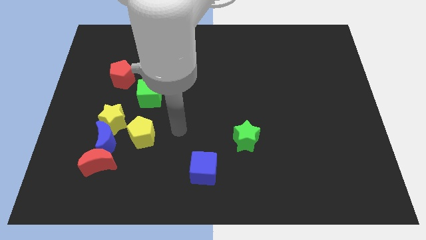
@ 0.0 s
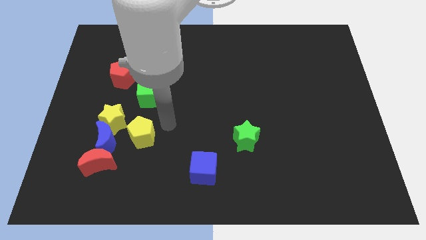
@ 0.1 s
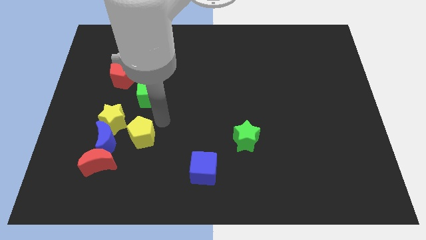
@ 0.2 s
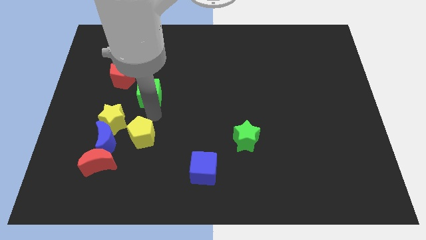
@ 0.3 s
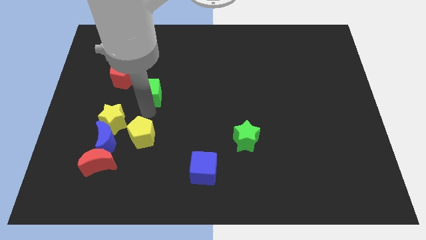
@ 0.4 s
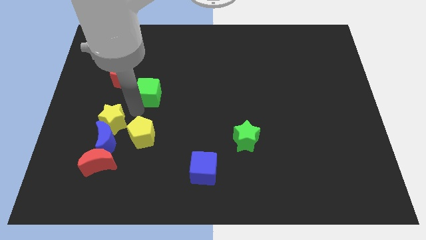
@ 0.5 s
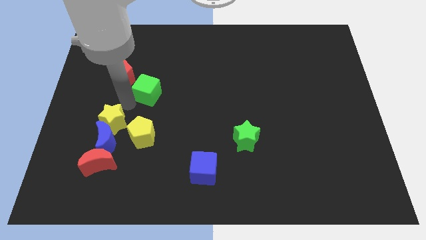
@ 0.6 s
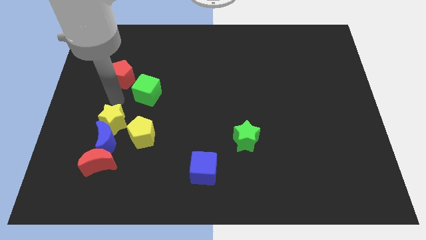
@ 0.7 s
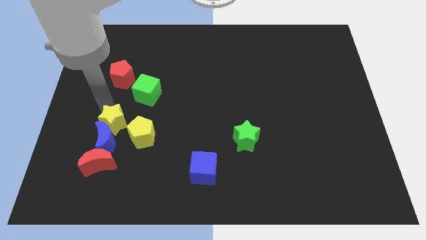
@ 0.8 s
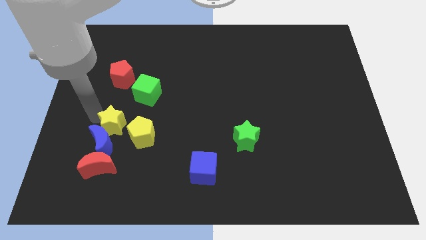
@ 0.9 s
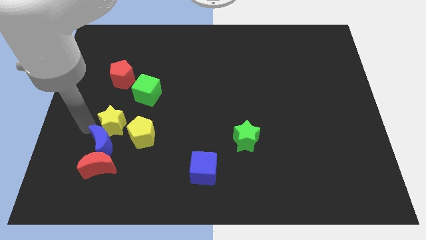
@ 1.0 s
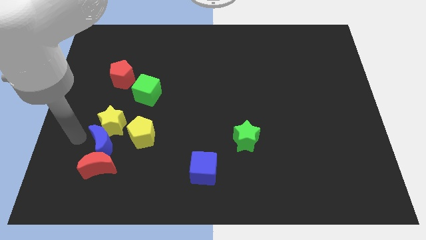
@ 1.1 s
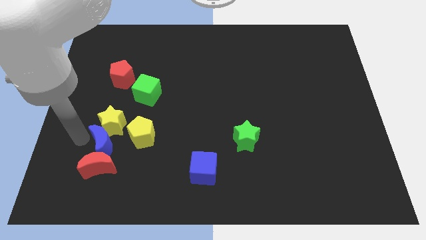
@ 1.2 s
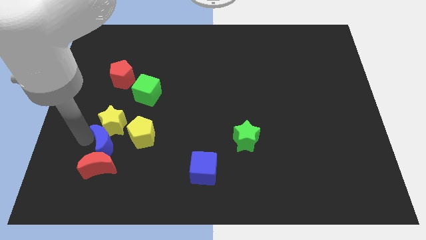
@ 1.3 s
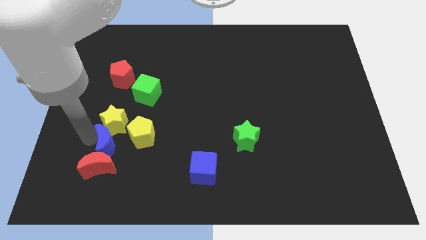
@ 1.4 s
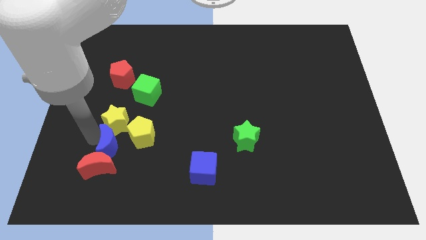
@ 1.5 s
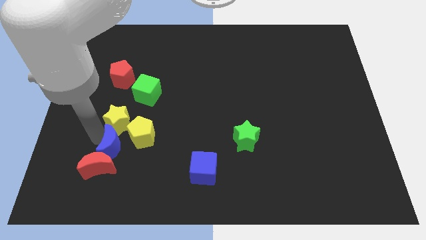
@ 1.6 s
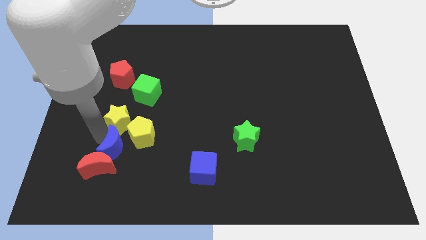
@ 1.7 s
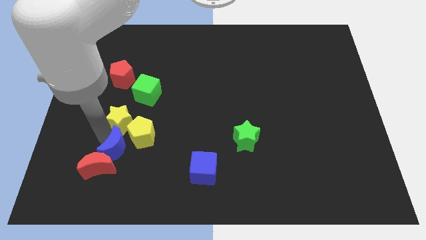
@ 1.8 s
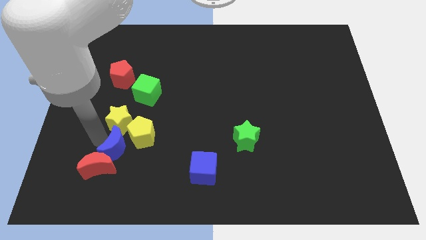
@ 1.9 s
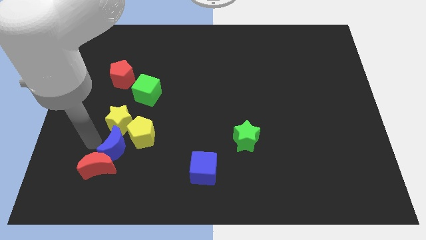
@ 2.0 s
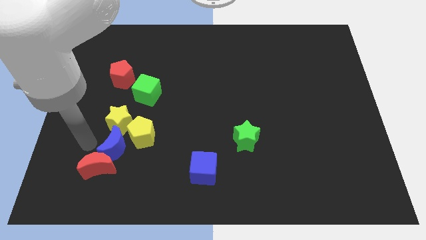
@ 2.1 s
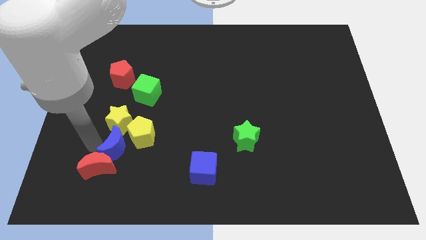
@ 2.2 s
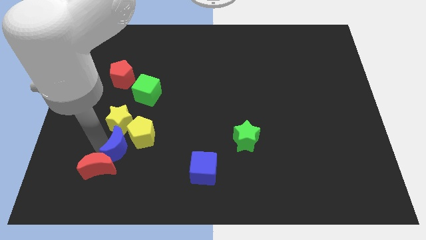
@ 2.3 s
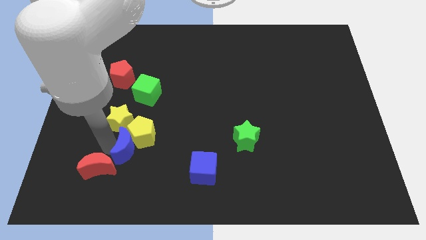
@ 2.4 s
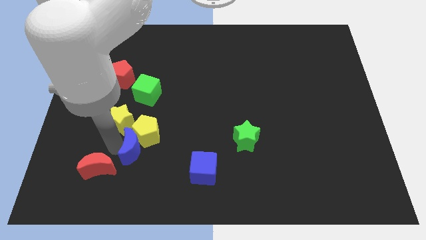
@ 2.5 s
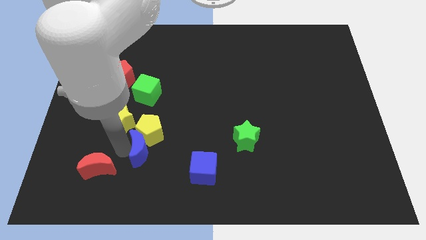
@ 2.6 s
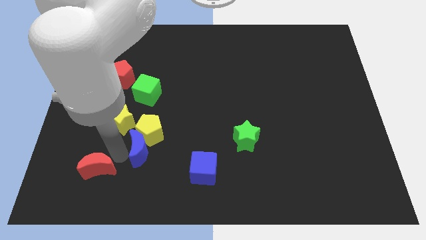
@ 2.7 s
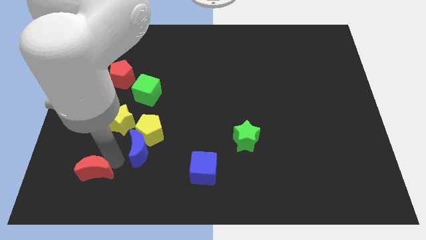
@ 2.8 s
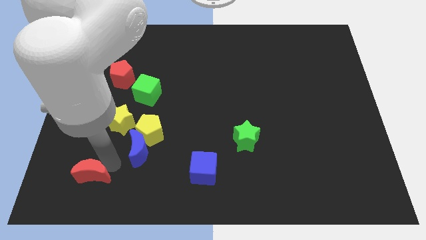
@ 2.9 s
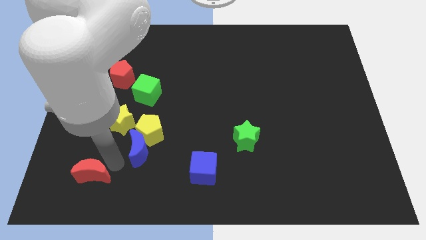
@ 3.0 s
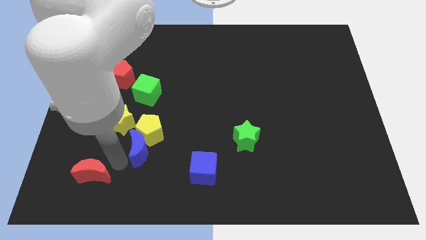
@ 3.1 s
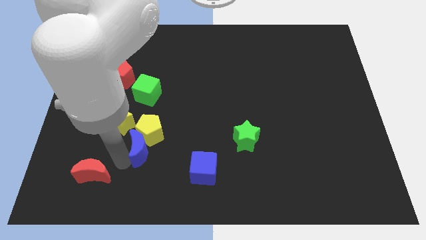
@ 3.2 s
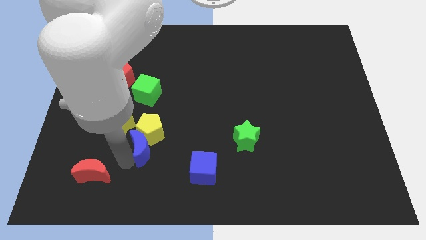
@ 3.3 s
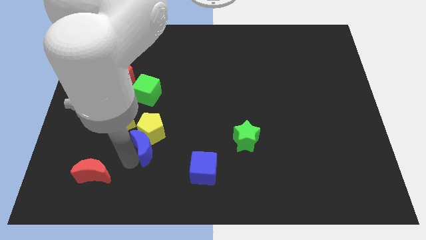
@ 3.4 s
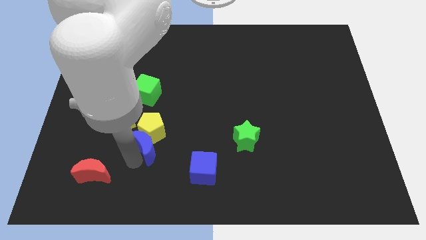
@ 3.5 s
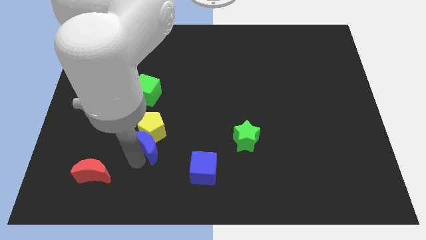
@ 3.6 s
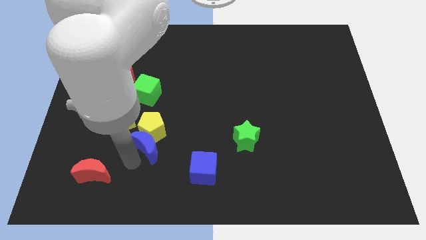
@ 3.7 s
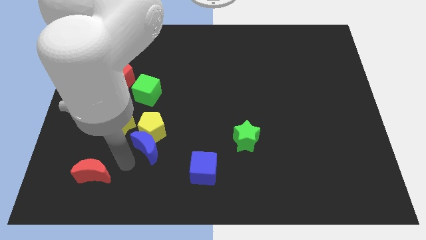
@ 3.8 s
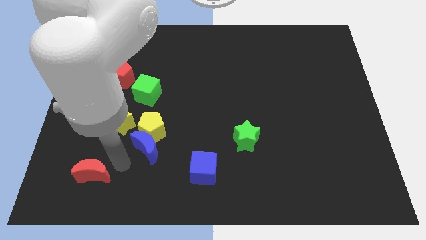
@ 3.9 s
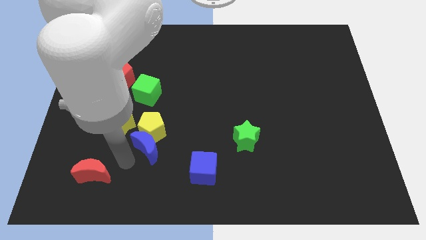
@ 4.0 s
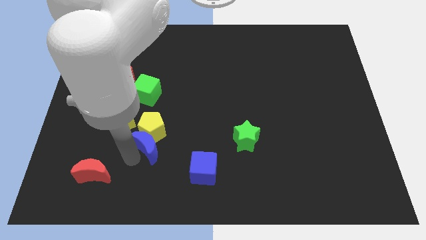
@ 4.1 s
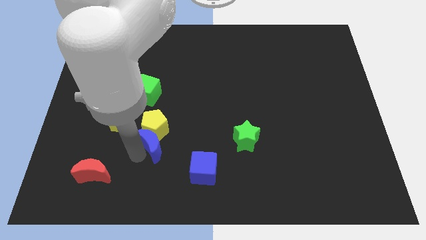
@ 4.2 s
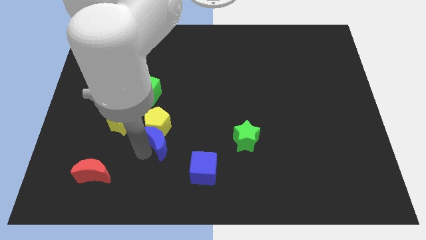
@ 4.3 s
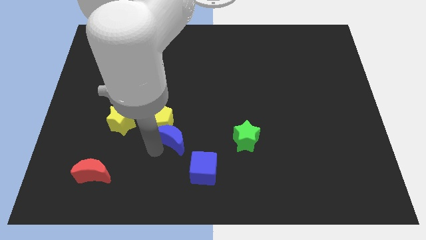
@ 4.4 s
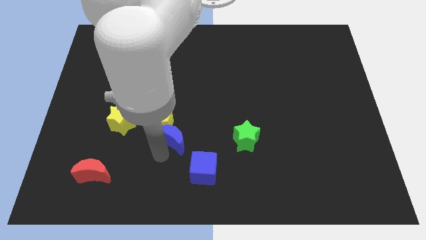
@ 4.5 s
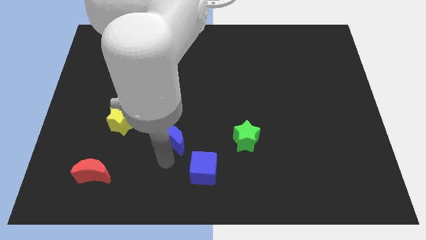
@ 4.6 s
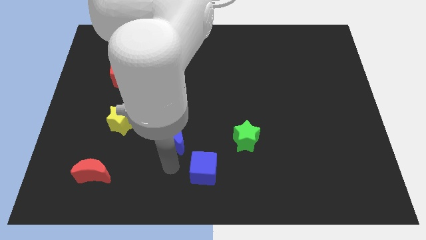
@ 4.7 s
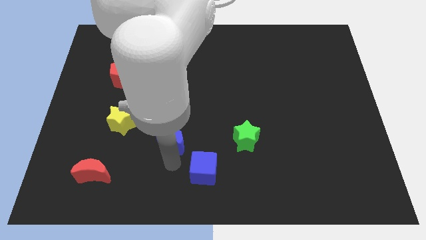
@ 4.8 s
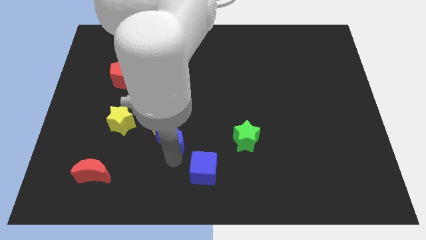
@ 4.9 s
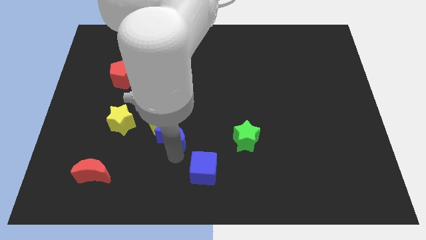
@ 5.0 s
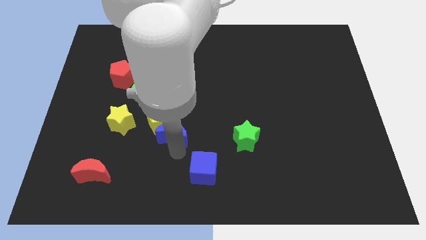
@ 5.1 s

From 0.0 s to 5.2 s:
slightly slide the blue moon diagonally up and to the right

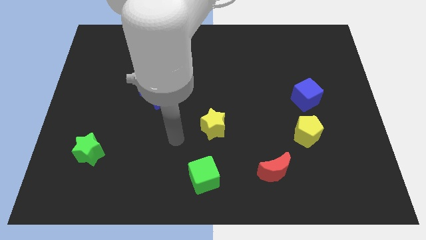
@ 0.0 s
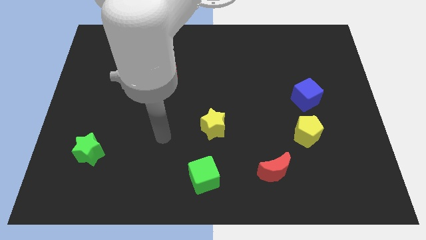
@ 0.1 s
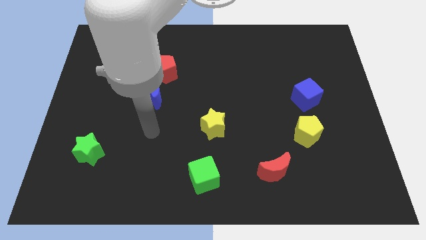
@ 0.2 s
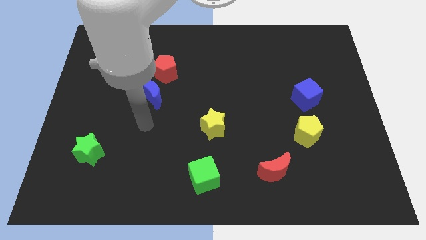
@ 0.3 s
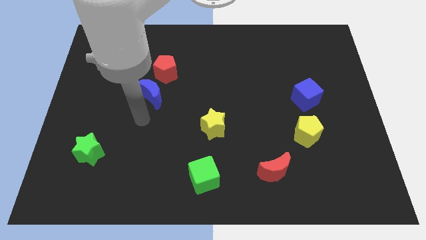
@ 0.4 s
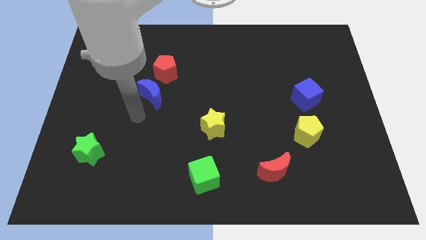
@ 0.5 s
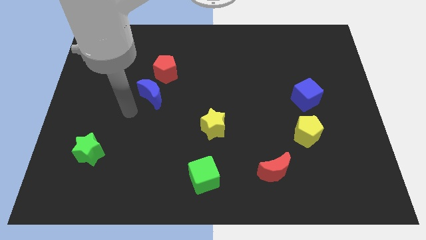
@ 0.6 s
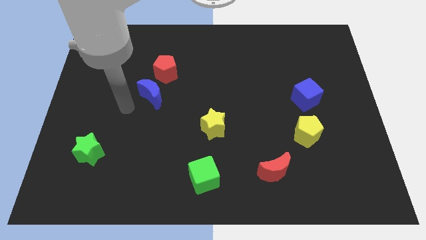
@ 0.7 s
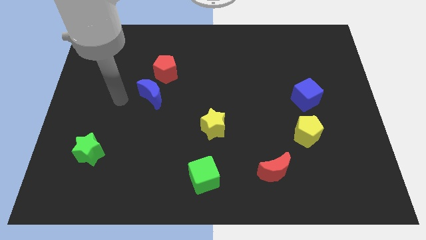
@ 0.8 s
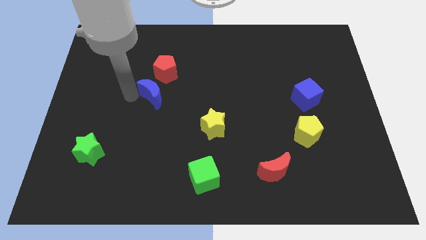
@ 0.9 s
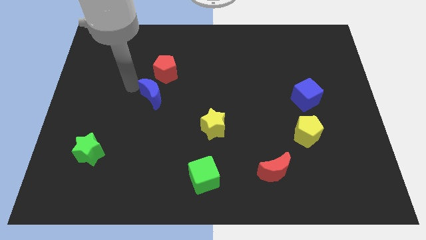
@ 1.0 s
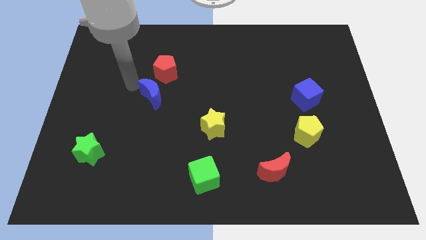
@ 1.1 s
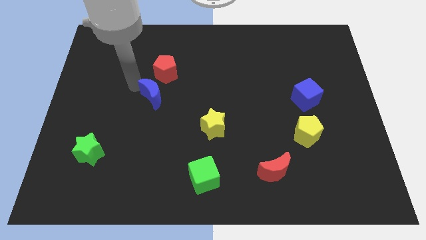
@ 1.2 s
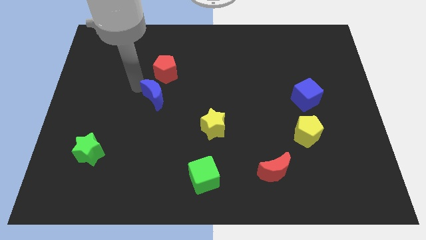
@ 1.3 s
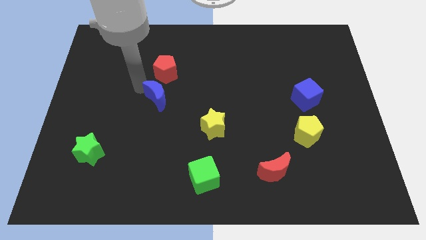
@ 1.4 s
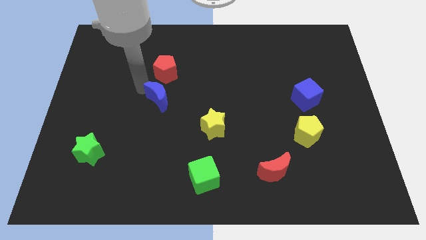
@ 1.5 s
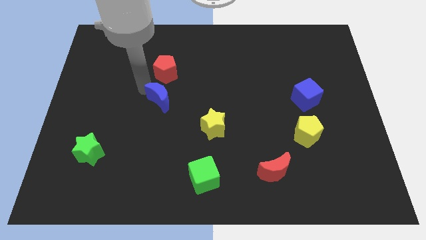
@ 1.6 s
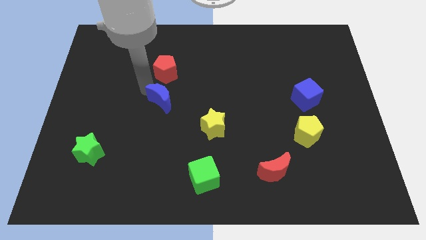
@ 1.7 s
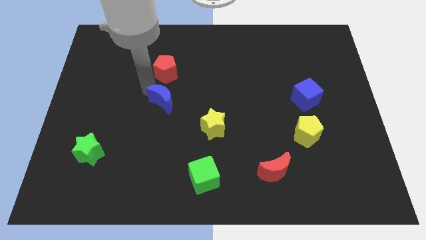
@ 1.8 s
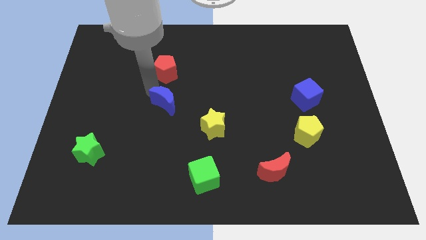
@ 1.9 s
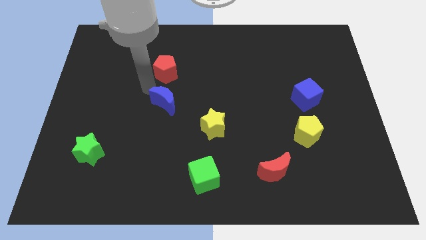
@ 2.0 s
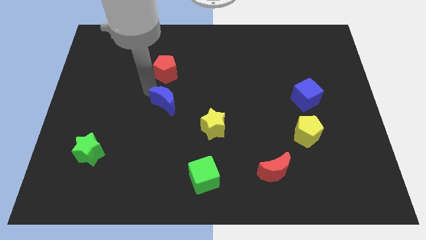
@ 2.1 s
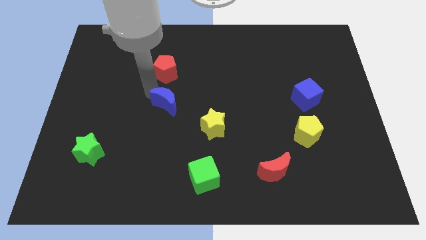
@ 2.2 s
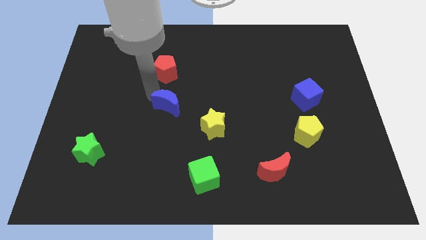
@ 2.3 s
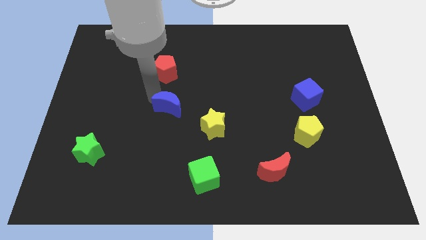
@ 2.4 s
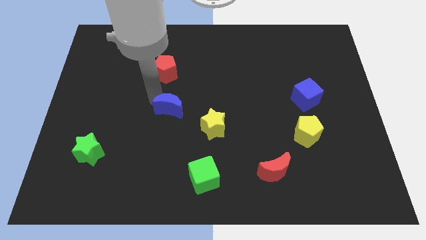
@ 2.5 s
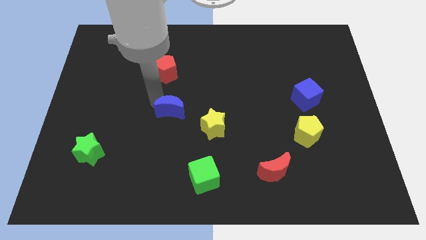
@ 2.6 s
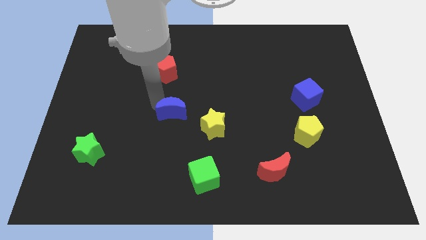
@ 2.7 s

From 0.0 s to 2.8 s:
slightly move the blue moon downwards and to the right
